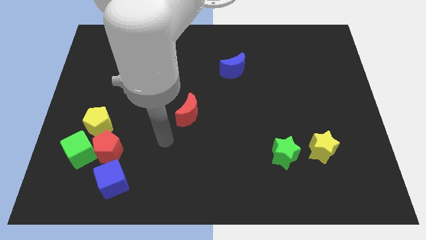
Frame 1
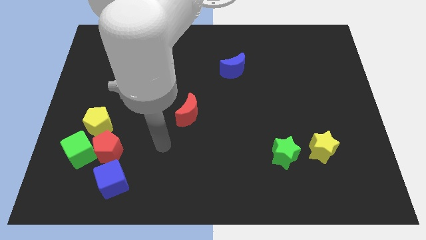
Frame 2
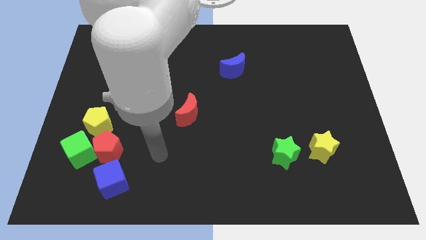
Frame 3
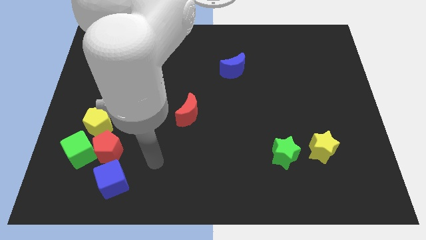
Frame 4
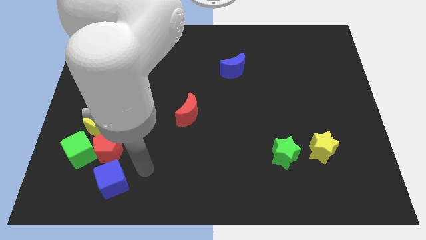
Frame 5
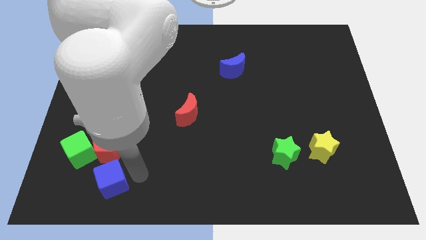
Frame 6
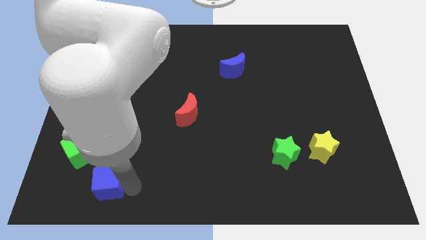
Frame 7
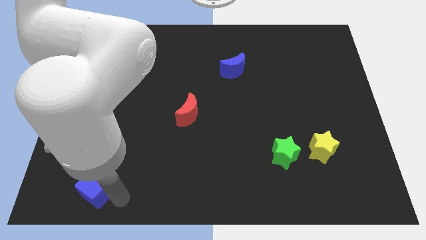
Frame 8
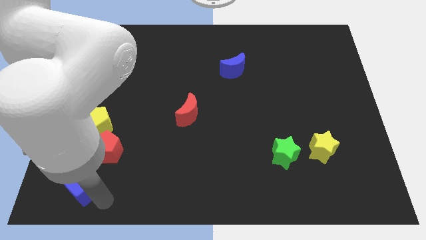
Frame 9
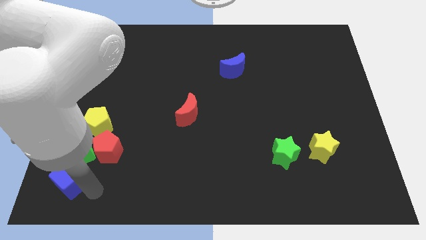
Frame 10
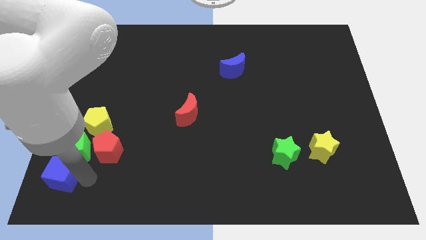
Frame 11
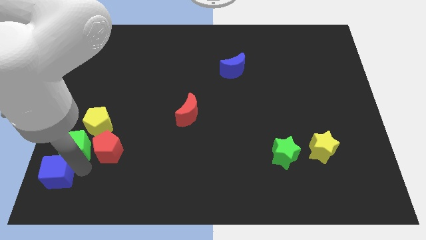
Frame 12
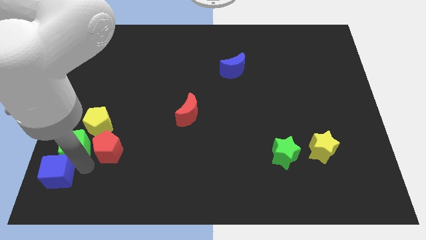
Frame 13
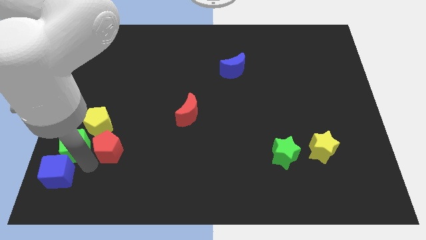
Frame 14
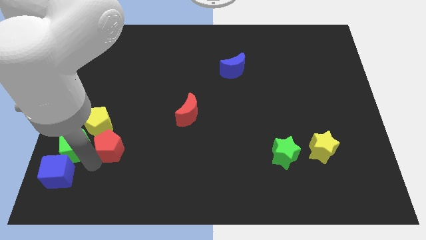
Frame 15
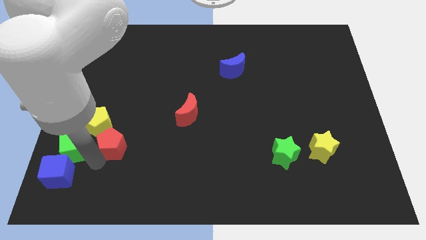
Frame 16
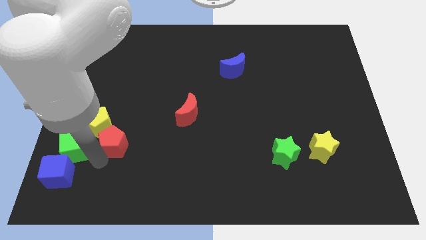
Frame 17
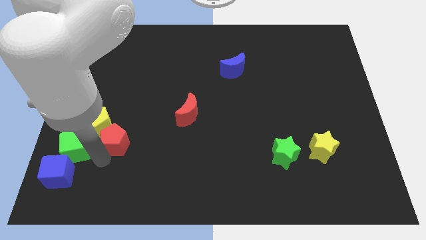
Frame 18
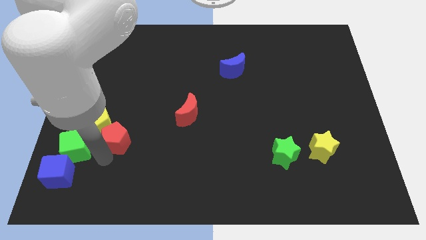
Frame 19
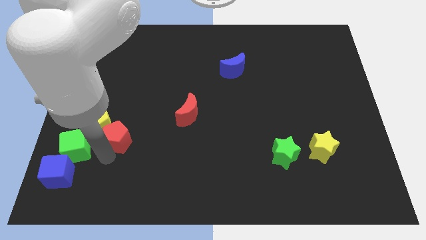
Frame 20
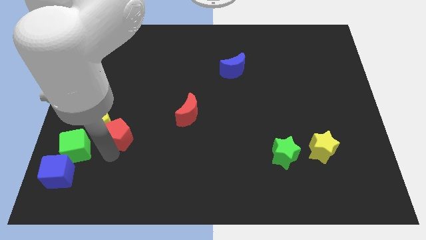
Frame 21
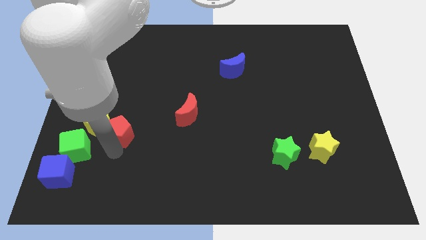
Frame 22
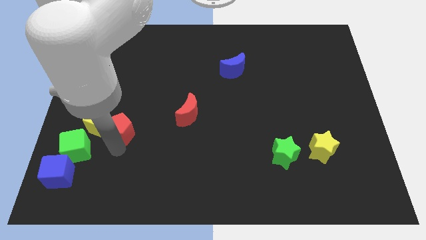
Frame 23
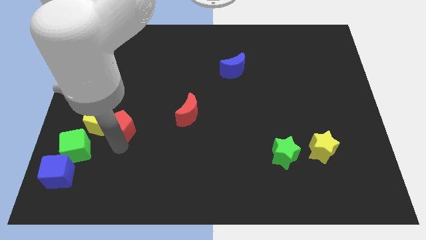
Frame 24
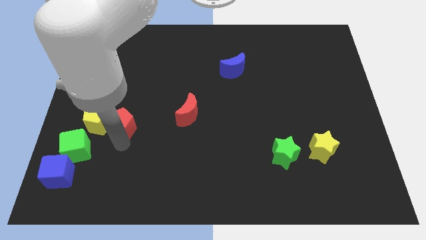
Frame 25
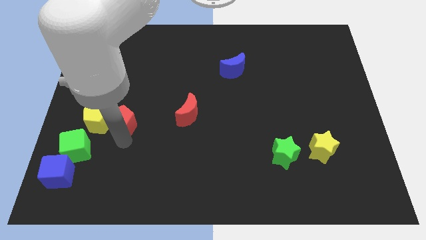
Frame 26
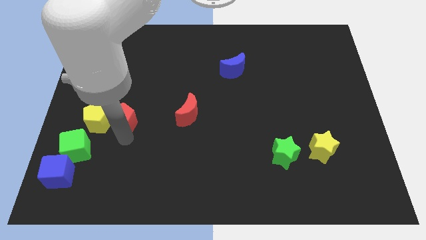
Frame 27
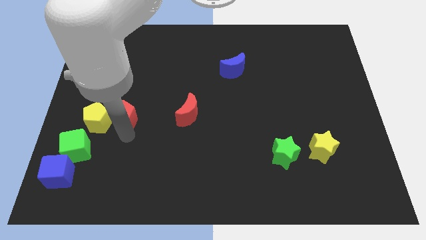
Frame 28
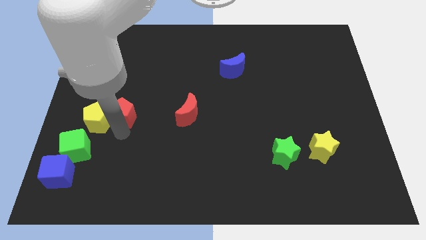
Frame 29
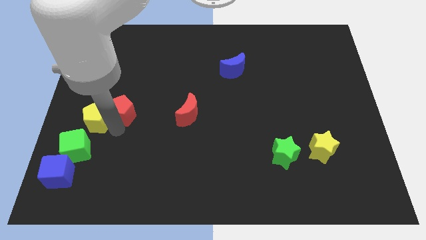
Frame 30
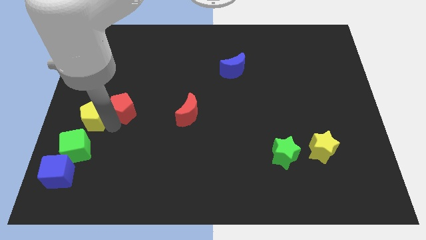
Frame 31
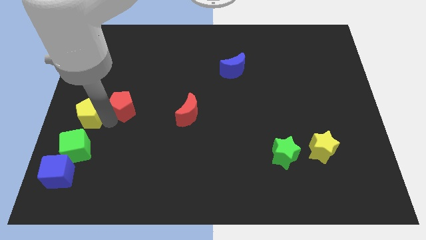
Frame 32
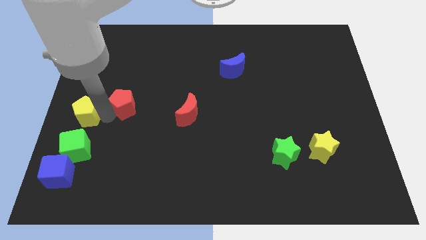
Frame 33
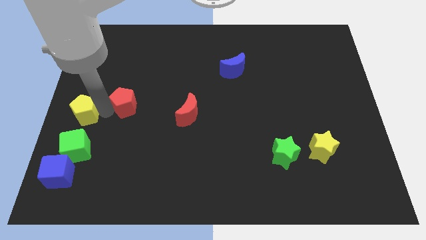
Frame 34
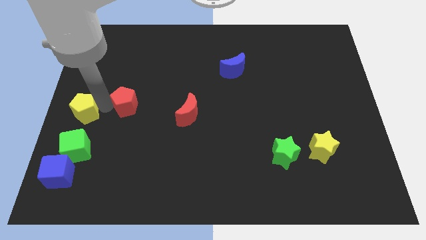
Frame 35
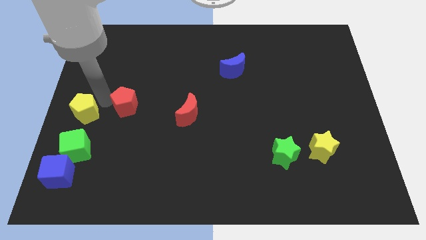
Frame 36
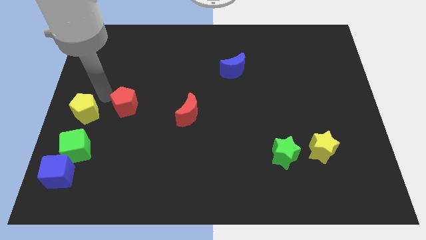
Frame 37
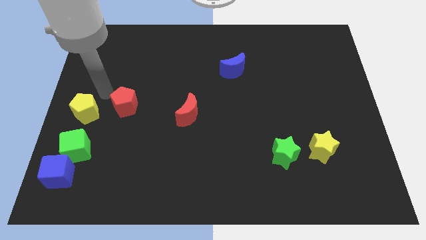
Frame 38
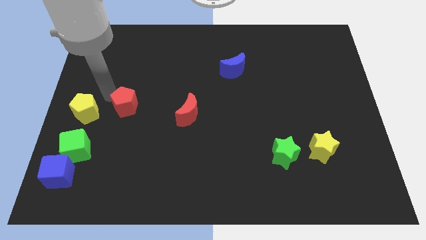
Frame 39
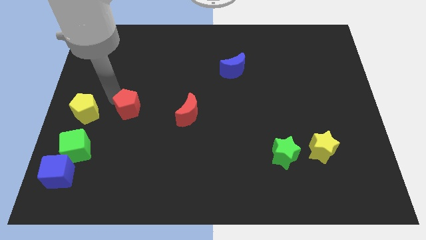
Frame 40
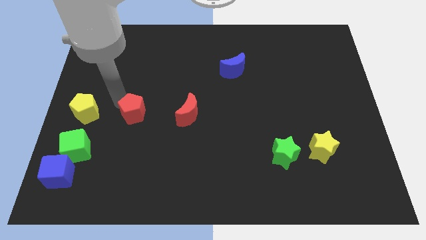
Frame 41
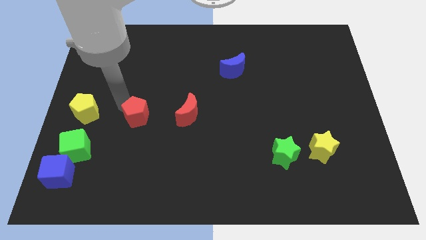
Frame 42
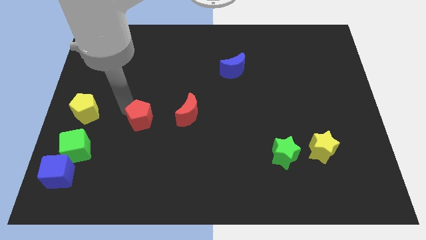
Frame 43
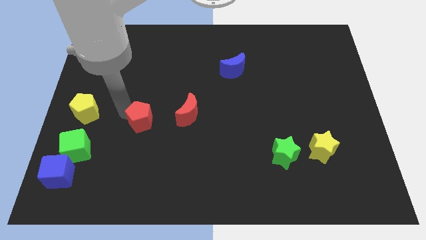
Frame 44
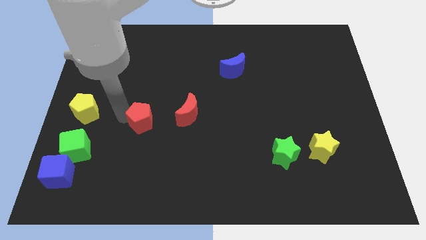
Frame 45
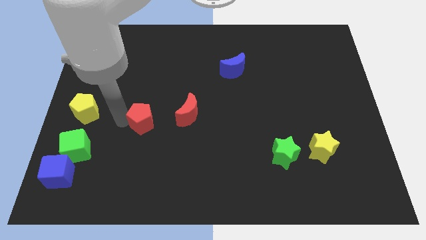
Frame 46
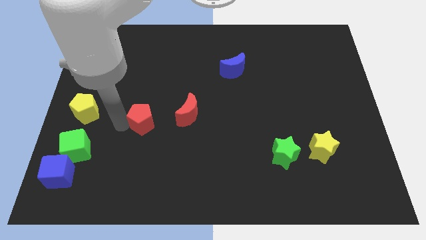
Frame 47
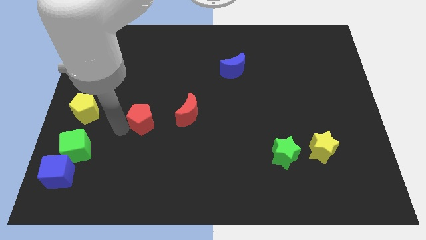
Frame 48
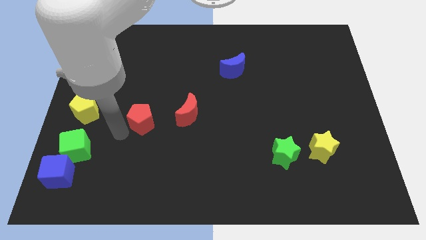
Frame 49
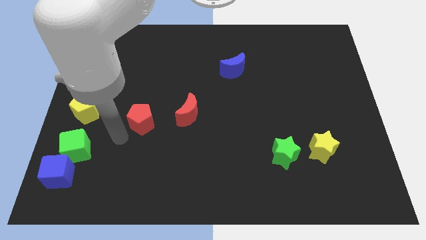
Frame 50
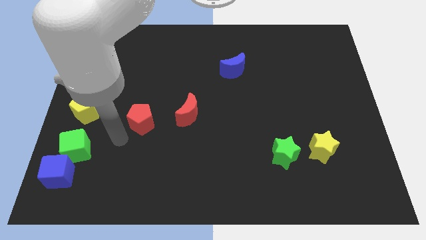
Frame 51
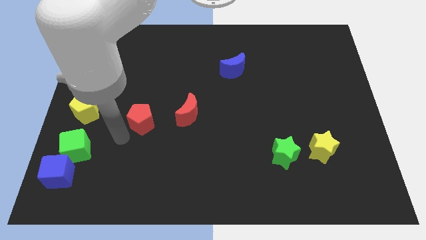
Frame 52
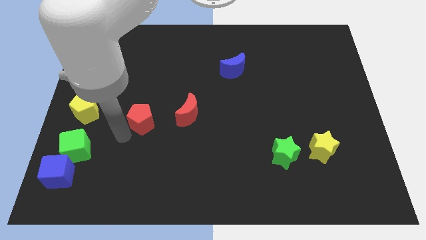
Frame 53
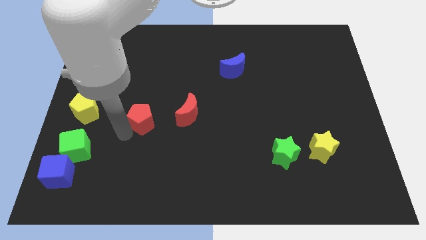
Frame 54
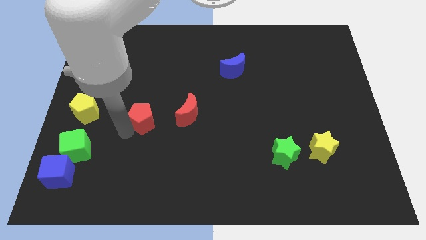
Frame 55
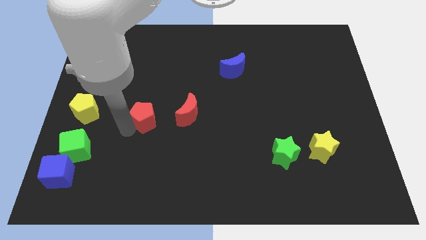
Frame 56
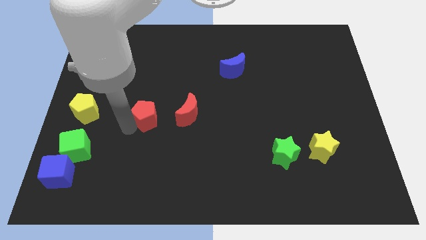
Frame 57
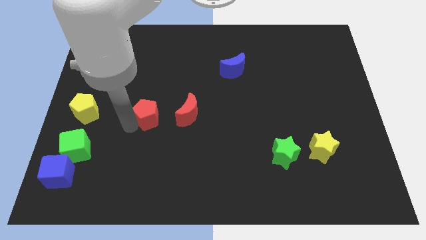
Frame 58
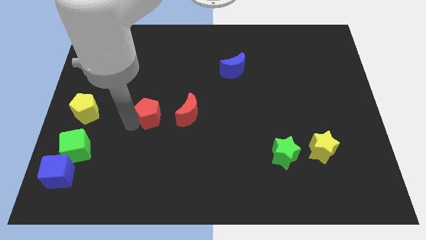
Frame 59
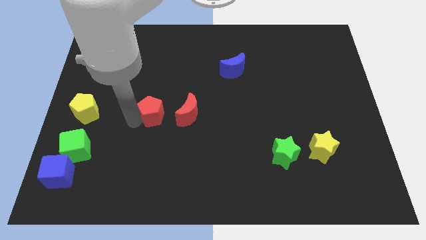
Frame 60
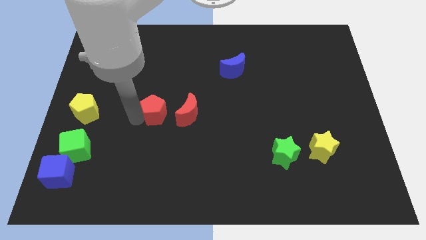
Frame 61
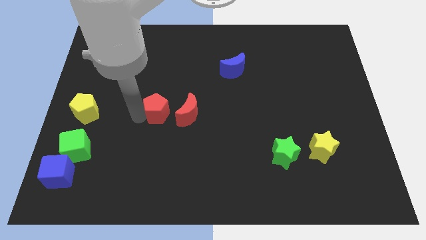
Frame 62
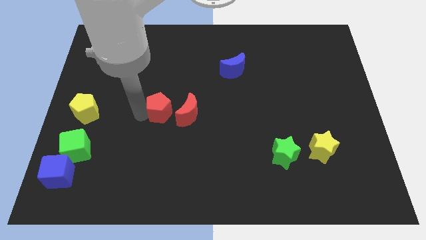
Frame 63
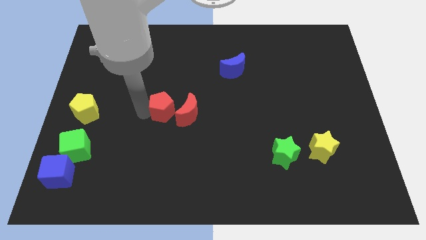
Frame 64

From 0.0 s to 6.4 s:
move the red pentagon to the middle of the board
